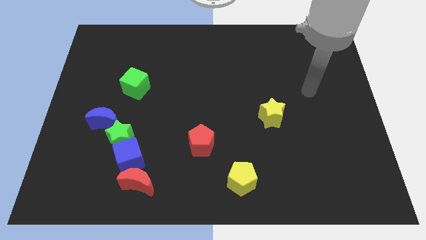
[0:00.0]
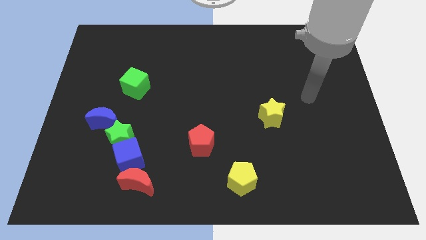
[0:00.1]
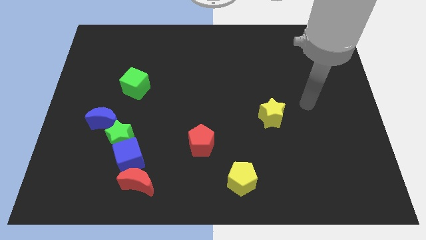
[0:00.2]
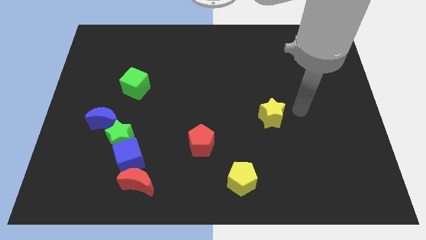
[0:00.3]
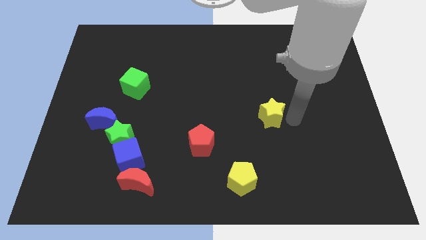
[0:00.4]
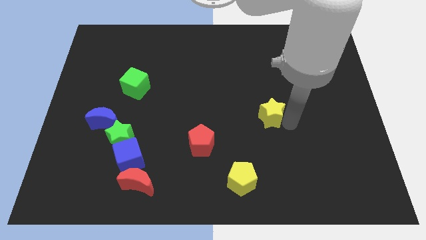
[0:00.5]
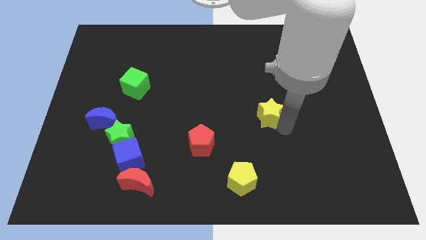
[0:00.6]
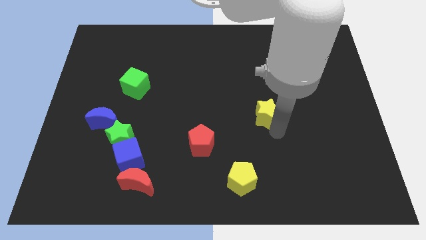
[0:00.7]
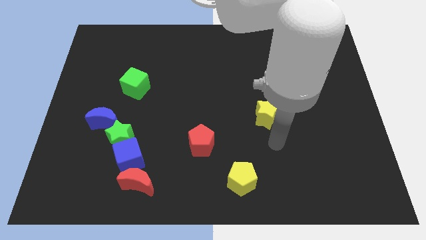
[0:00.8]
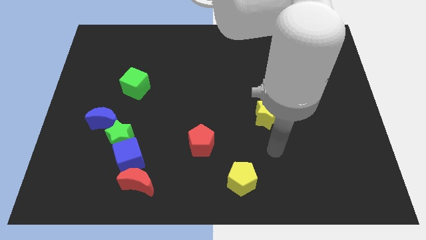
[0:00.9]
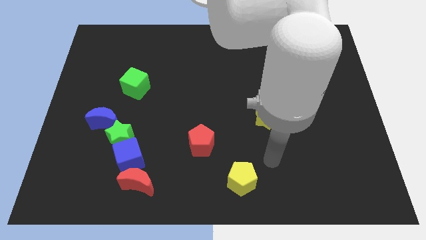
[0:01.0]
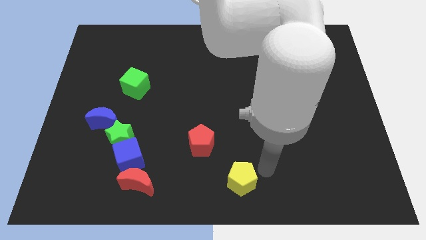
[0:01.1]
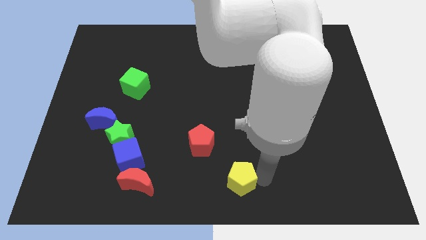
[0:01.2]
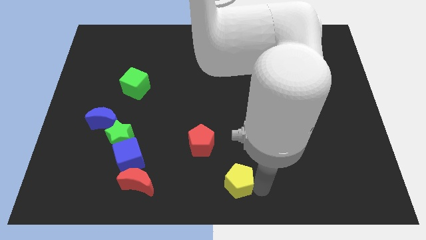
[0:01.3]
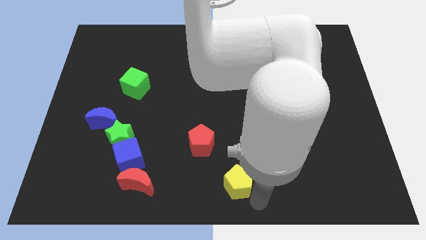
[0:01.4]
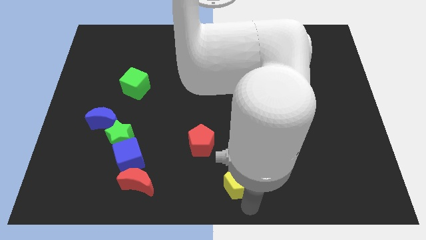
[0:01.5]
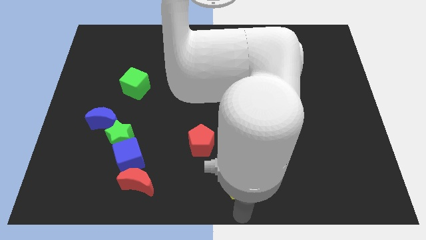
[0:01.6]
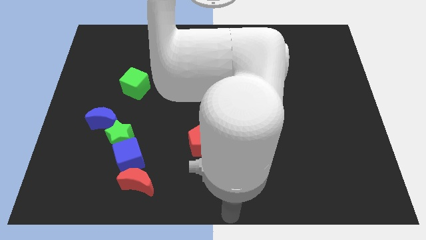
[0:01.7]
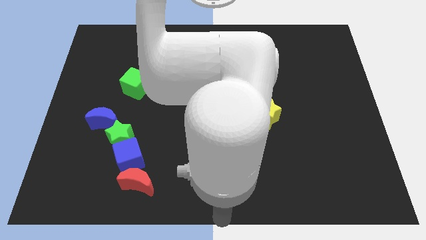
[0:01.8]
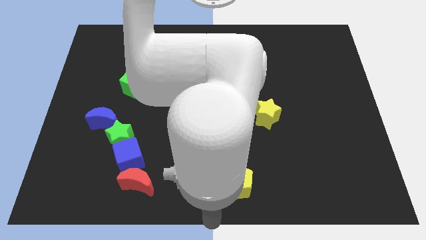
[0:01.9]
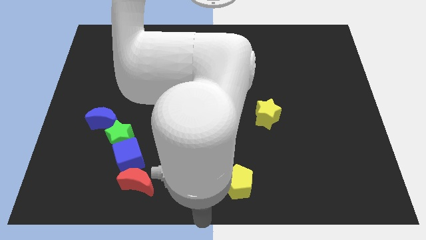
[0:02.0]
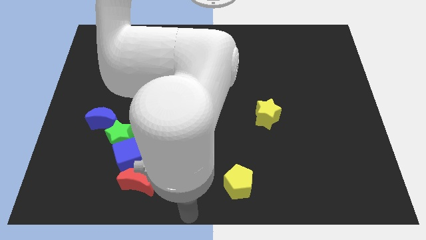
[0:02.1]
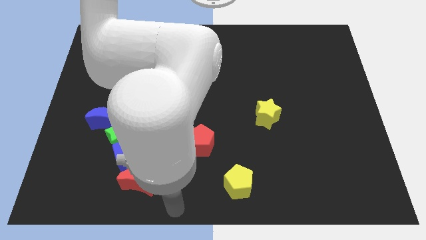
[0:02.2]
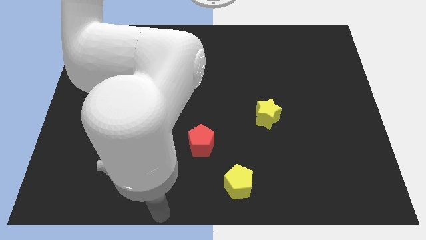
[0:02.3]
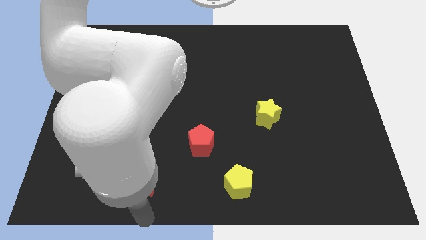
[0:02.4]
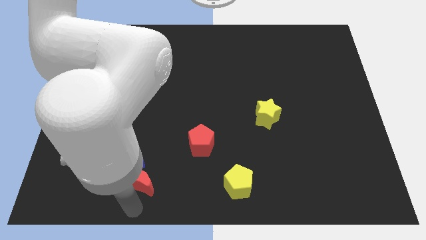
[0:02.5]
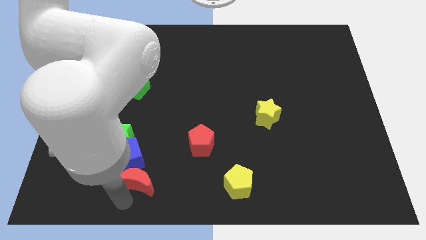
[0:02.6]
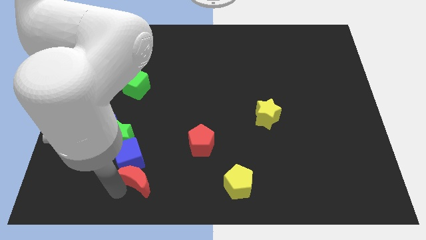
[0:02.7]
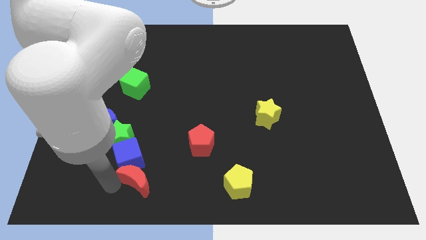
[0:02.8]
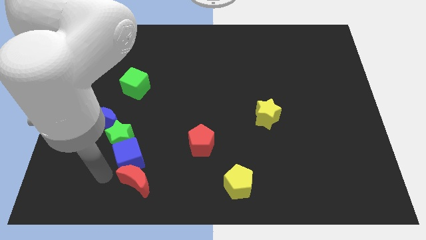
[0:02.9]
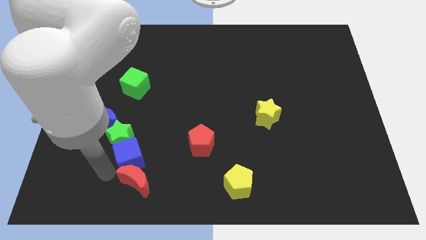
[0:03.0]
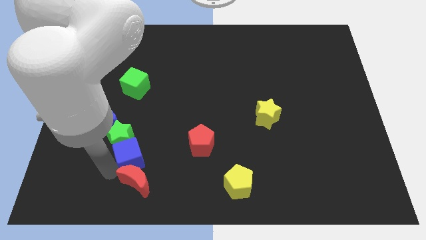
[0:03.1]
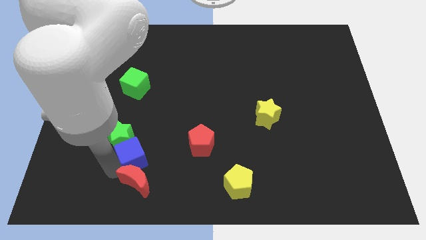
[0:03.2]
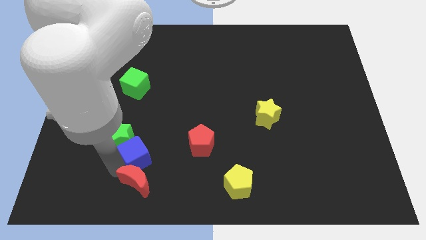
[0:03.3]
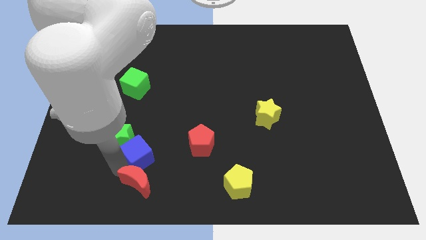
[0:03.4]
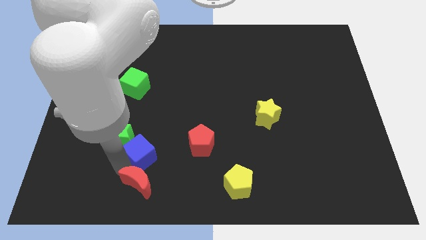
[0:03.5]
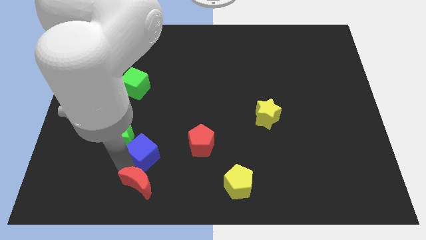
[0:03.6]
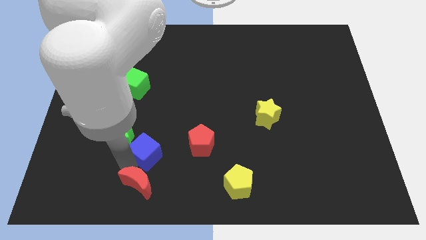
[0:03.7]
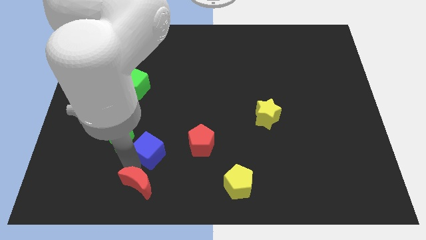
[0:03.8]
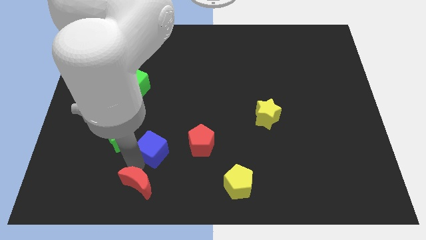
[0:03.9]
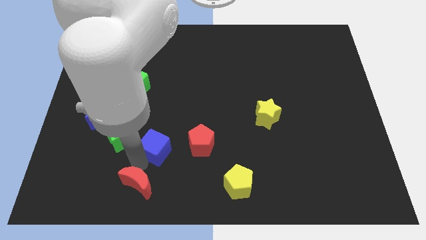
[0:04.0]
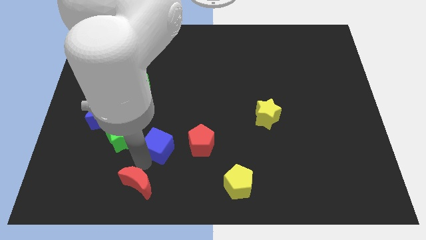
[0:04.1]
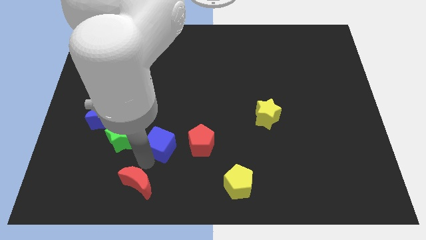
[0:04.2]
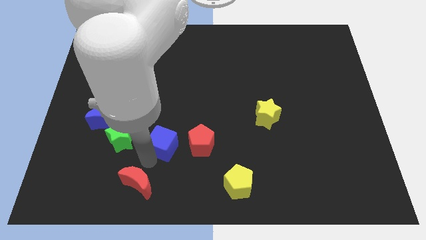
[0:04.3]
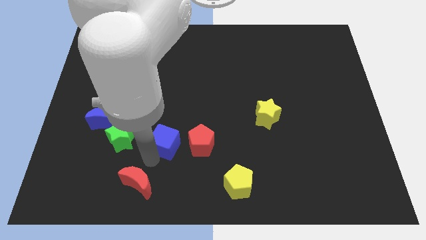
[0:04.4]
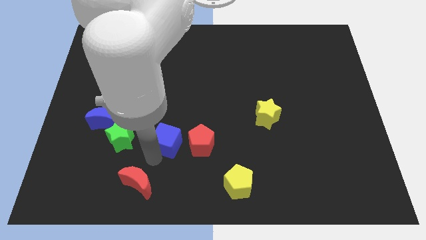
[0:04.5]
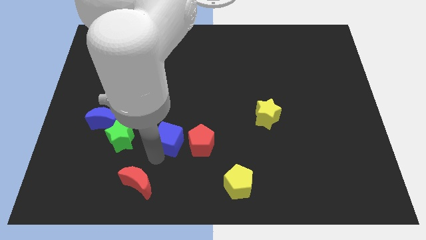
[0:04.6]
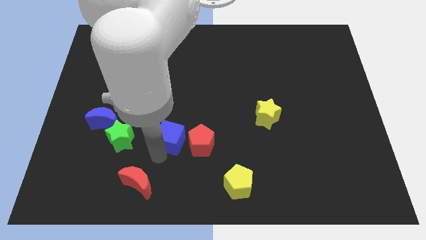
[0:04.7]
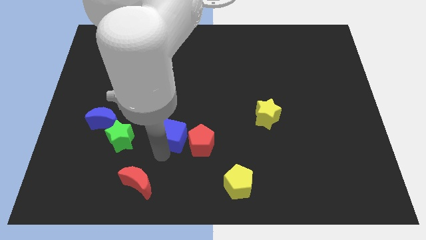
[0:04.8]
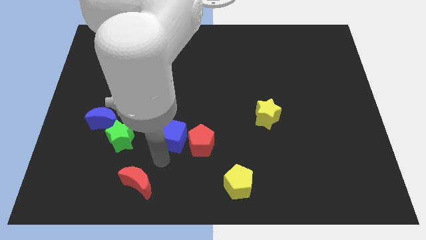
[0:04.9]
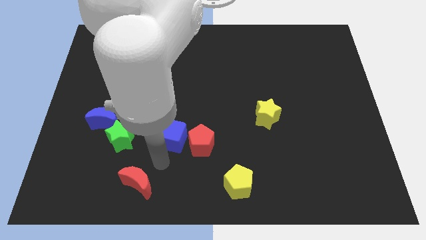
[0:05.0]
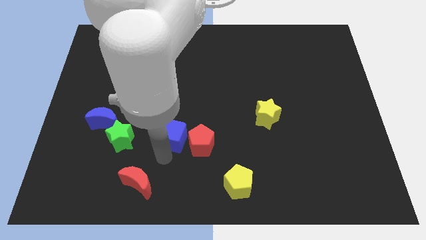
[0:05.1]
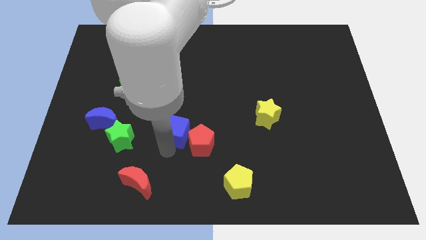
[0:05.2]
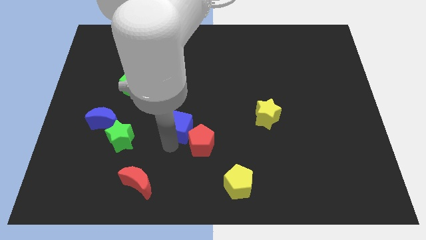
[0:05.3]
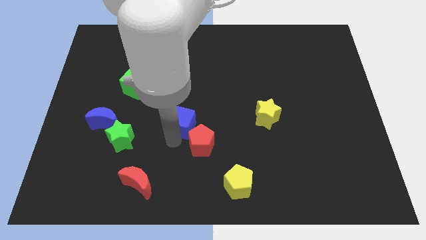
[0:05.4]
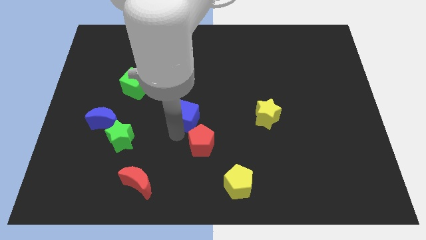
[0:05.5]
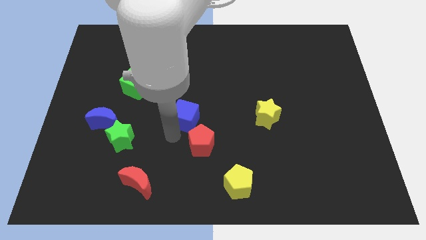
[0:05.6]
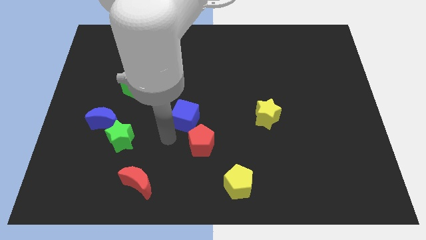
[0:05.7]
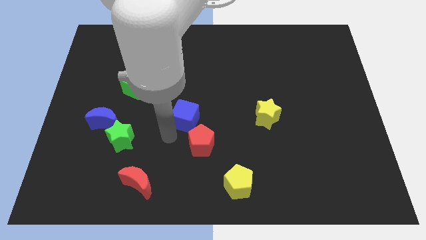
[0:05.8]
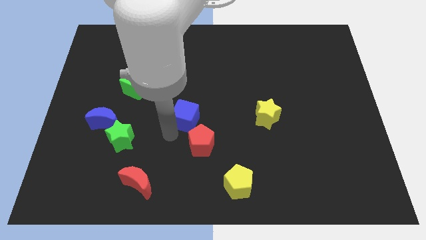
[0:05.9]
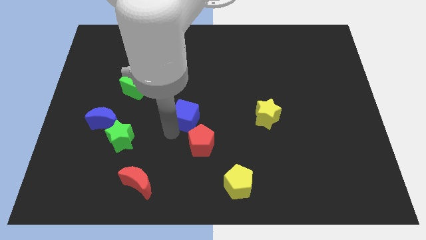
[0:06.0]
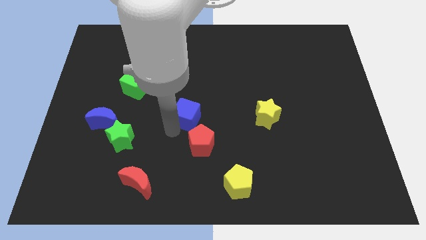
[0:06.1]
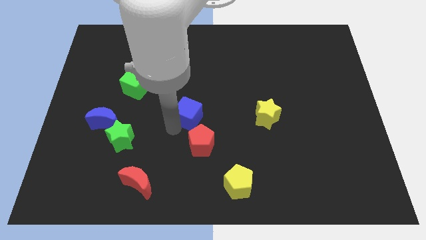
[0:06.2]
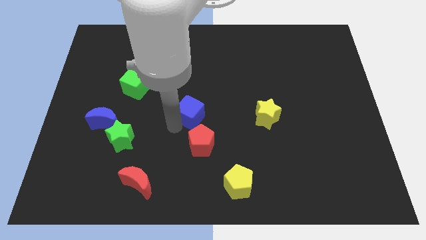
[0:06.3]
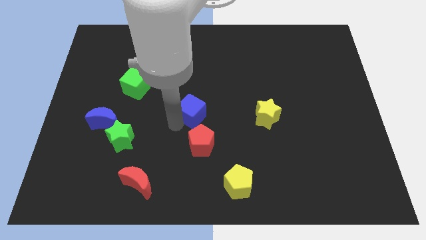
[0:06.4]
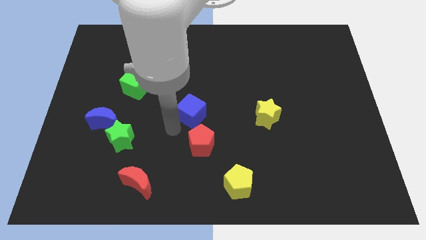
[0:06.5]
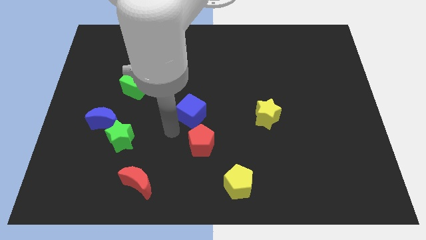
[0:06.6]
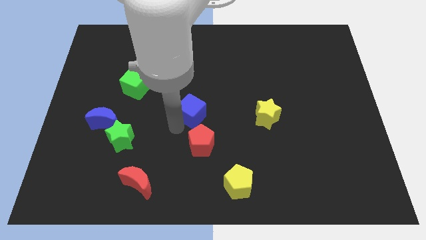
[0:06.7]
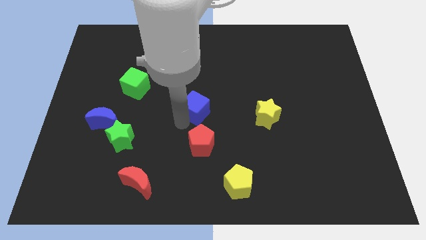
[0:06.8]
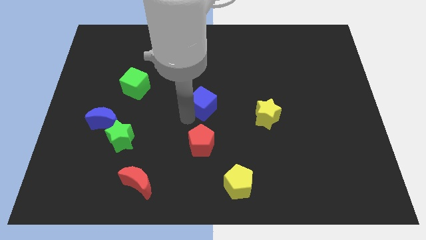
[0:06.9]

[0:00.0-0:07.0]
push the blue cube up and then right

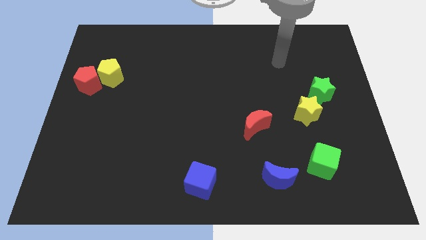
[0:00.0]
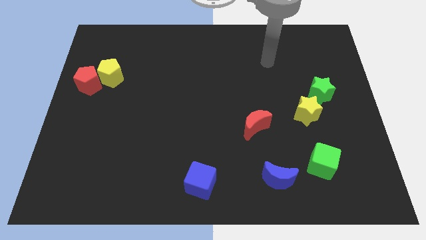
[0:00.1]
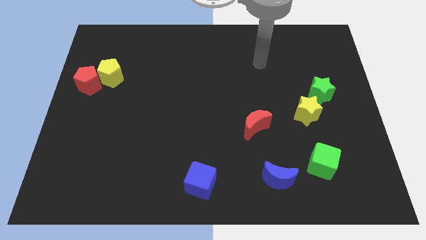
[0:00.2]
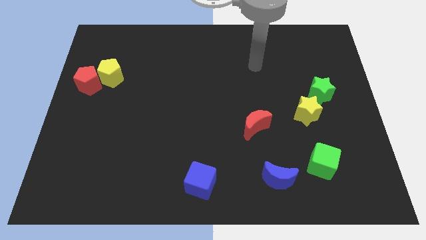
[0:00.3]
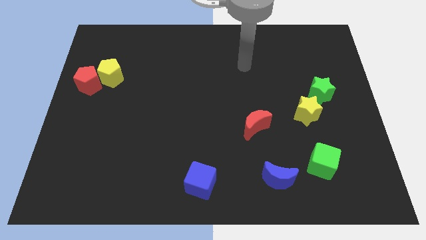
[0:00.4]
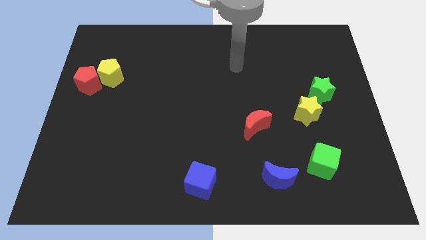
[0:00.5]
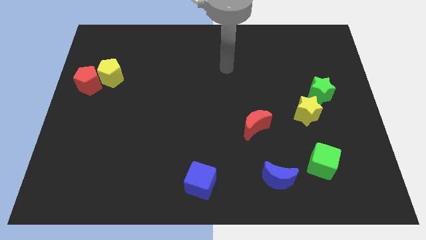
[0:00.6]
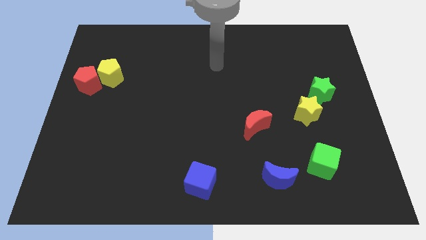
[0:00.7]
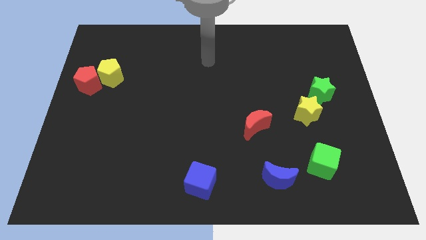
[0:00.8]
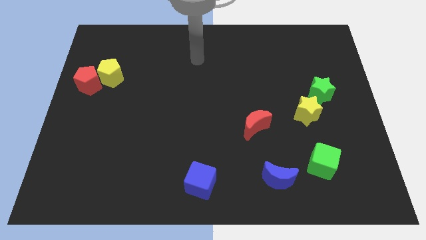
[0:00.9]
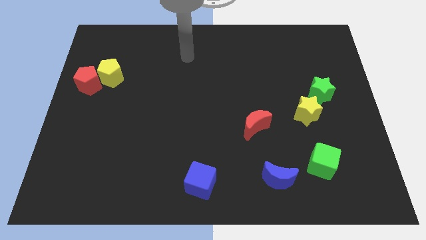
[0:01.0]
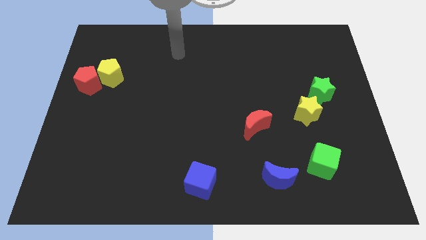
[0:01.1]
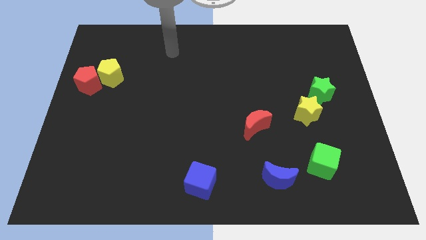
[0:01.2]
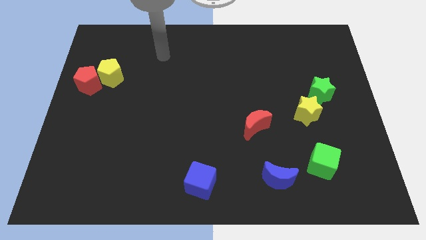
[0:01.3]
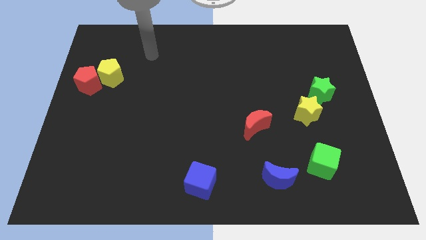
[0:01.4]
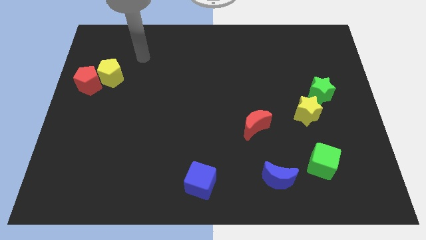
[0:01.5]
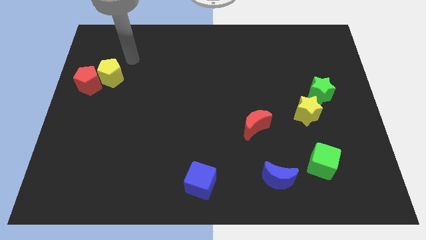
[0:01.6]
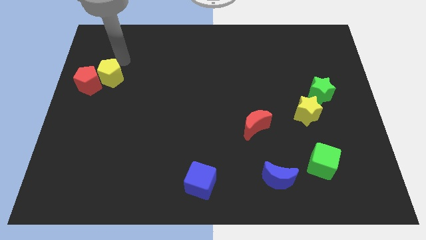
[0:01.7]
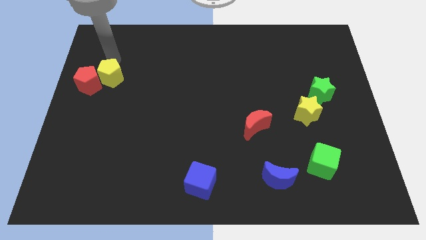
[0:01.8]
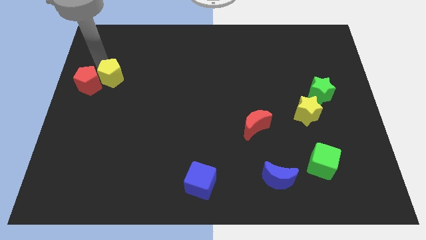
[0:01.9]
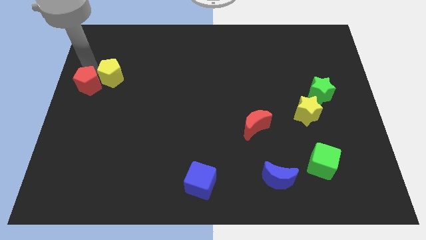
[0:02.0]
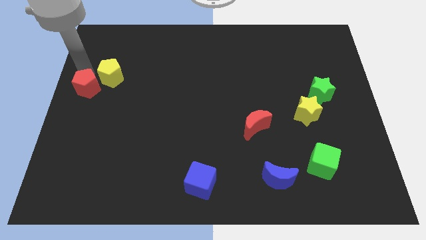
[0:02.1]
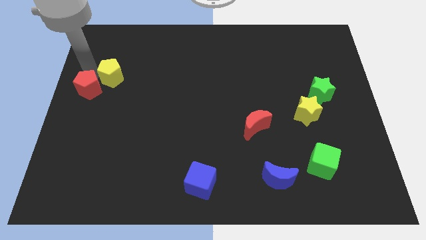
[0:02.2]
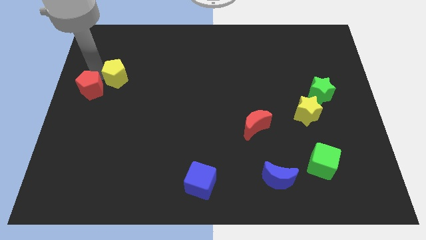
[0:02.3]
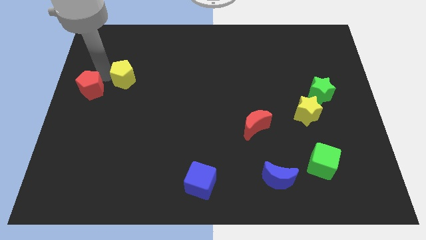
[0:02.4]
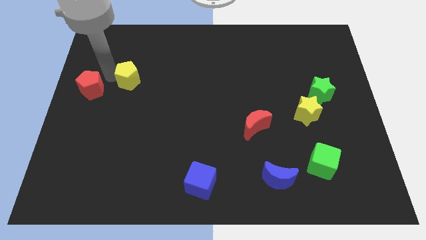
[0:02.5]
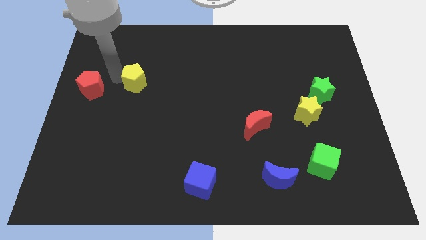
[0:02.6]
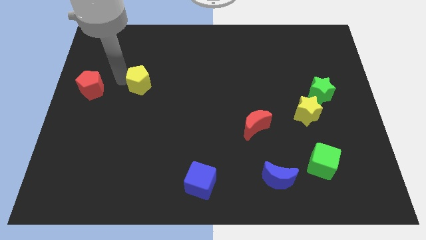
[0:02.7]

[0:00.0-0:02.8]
move the yellow pentagon right a bit
